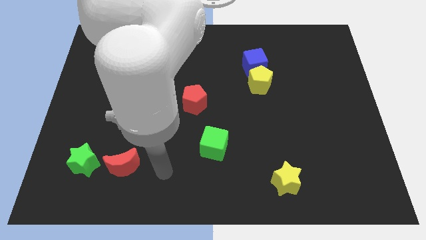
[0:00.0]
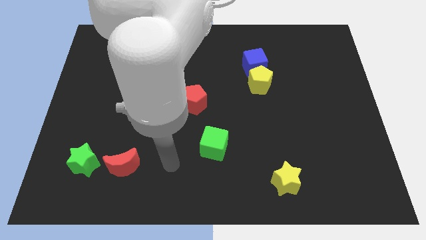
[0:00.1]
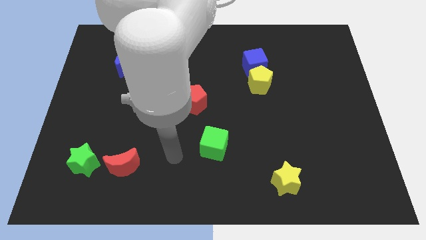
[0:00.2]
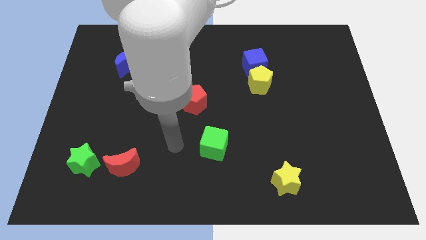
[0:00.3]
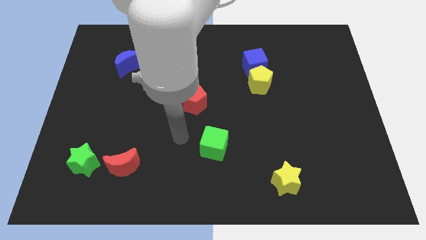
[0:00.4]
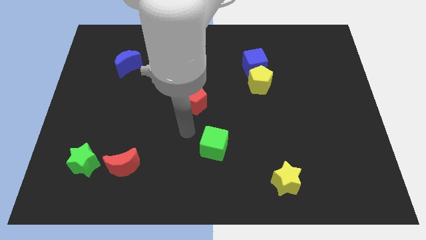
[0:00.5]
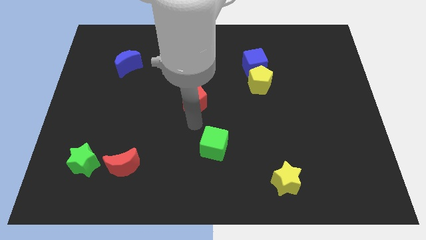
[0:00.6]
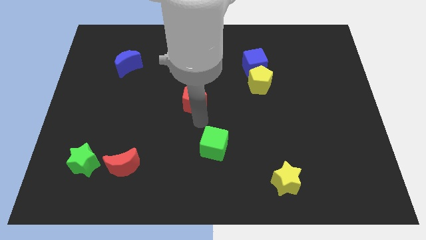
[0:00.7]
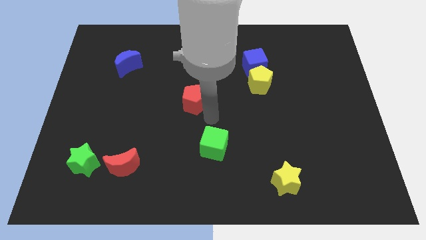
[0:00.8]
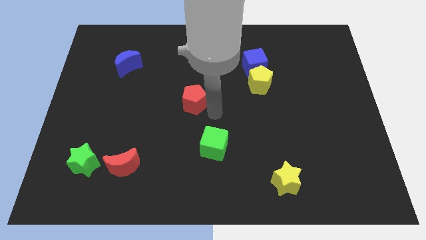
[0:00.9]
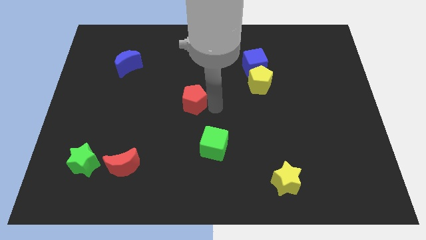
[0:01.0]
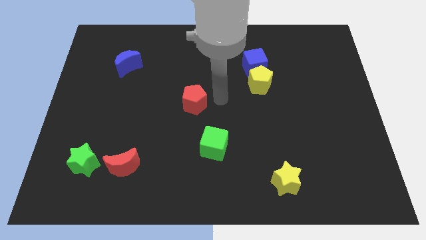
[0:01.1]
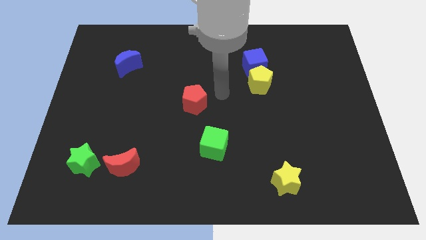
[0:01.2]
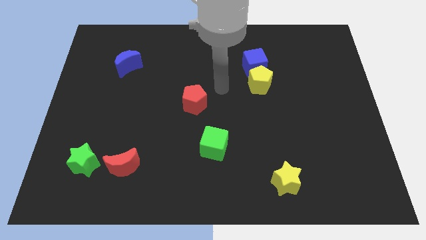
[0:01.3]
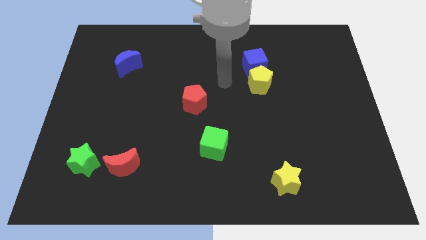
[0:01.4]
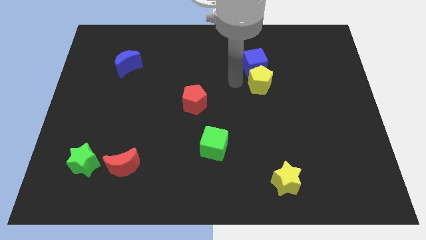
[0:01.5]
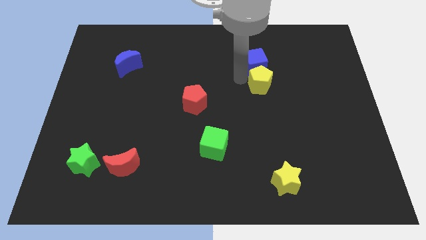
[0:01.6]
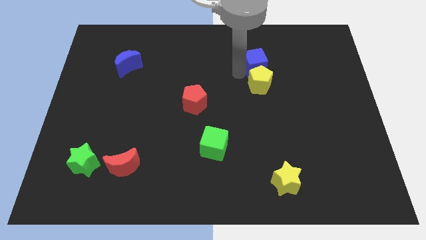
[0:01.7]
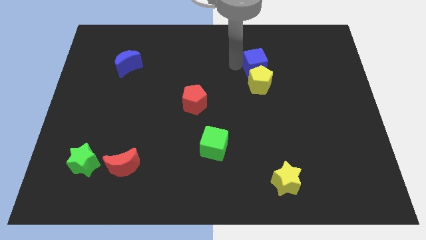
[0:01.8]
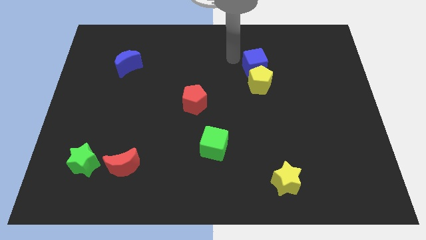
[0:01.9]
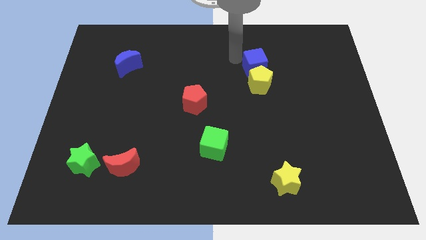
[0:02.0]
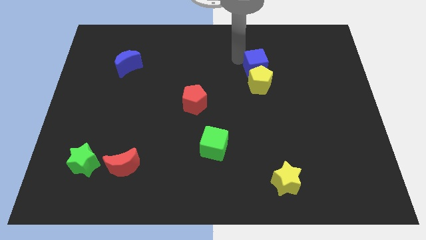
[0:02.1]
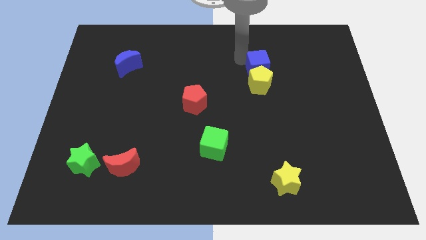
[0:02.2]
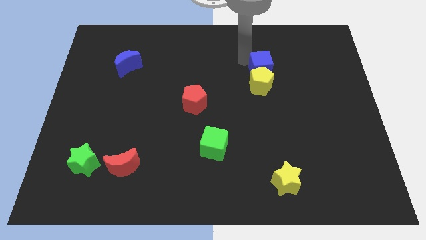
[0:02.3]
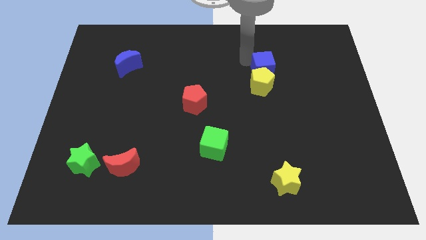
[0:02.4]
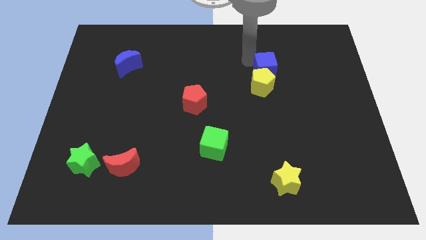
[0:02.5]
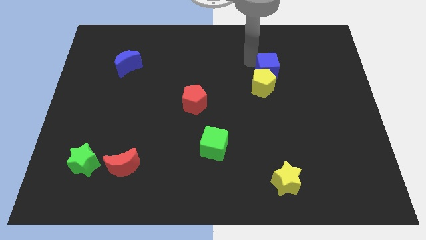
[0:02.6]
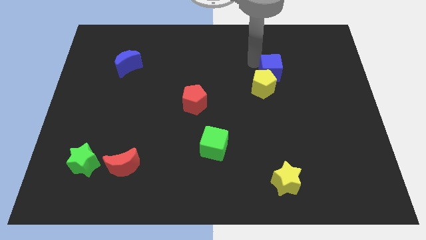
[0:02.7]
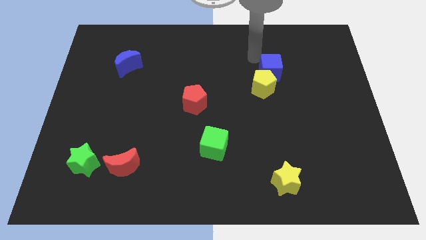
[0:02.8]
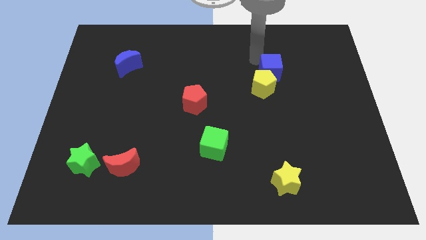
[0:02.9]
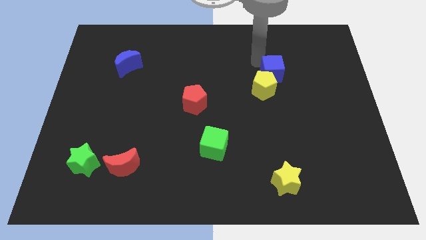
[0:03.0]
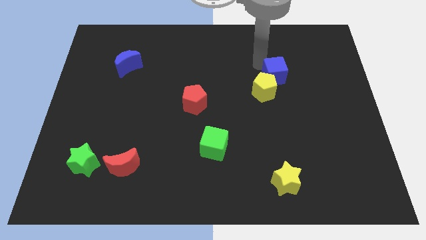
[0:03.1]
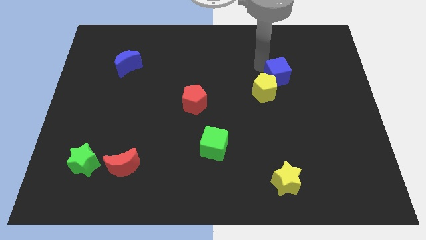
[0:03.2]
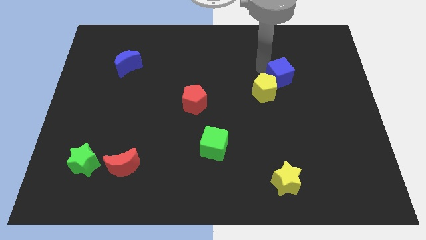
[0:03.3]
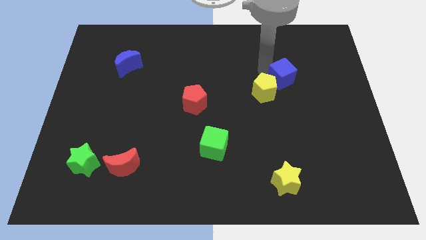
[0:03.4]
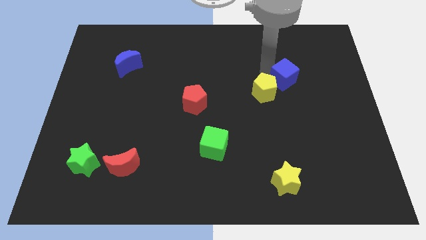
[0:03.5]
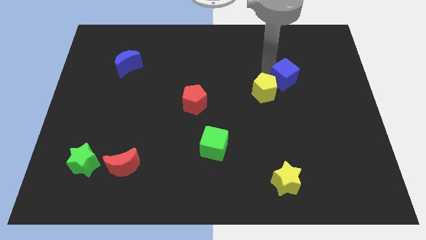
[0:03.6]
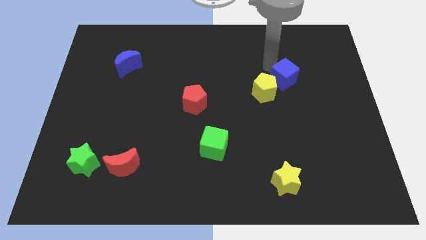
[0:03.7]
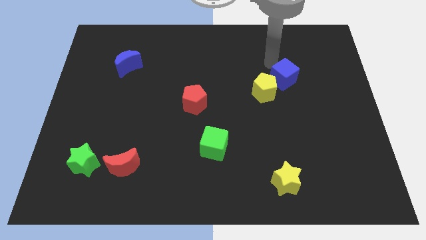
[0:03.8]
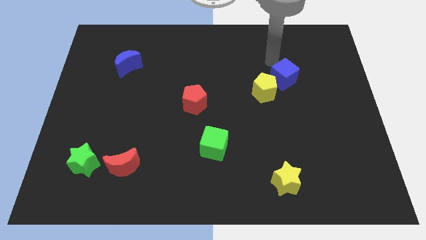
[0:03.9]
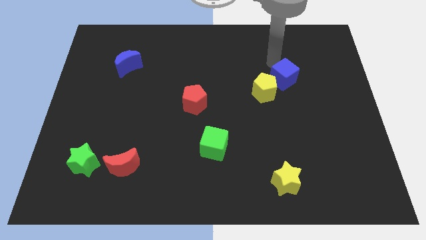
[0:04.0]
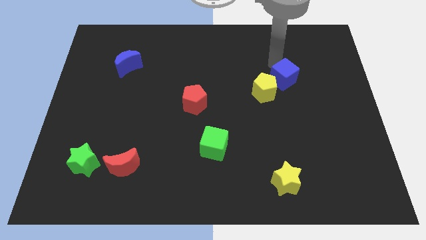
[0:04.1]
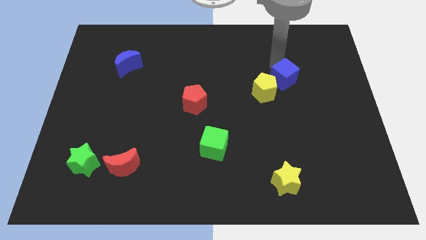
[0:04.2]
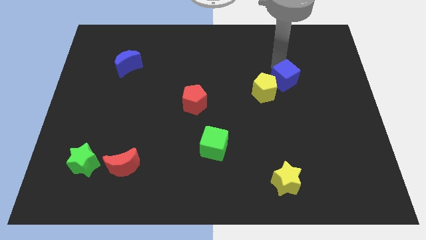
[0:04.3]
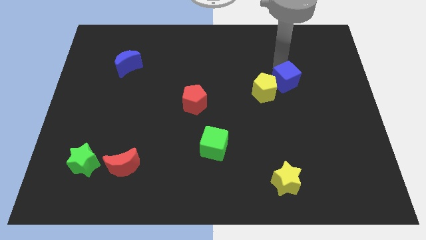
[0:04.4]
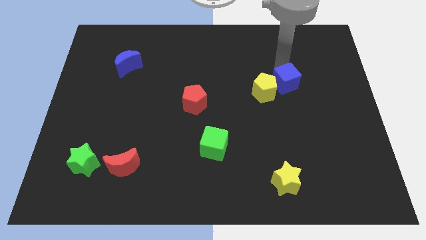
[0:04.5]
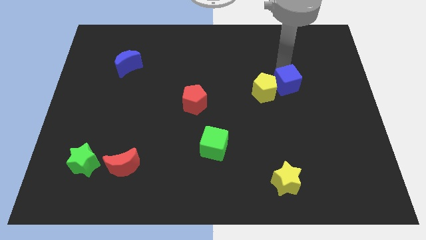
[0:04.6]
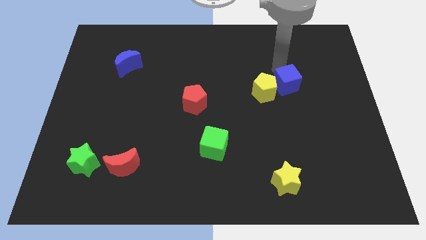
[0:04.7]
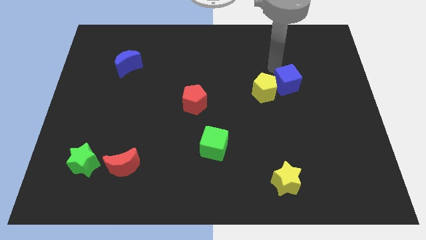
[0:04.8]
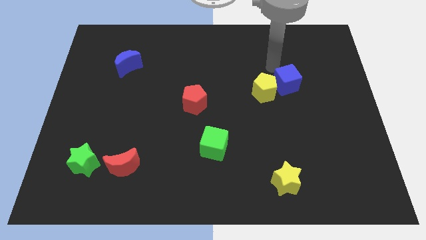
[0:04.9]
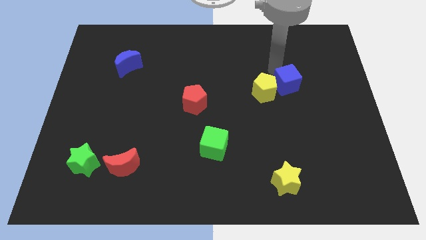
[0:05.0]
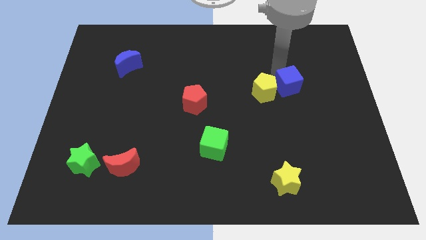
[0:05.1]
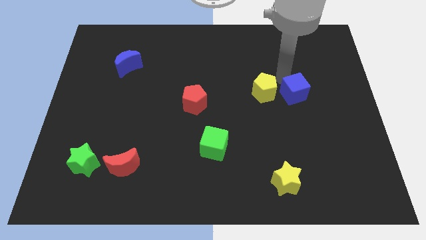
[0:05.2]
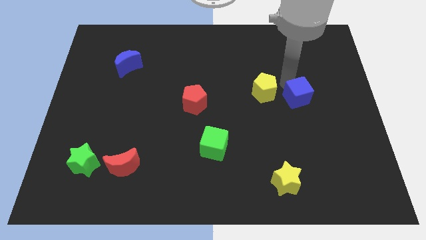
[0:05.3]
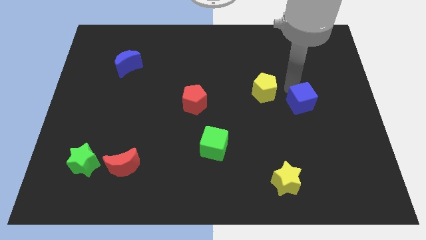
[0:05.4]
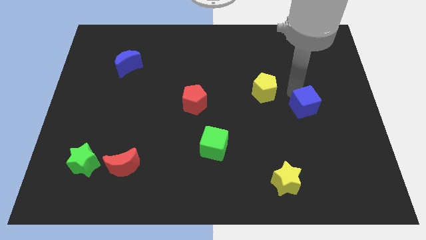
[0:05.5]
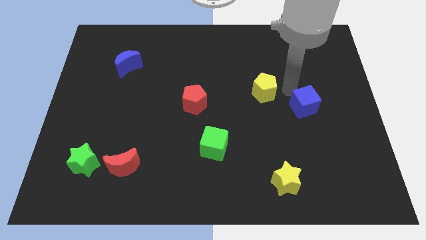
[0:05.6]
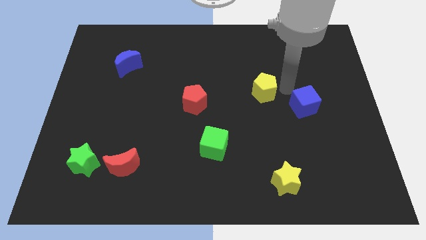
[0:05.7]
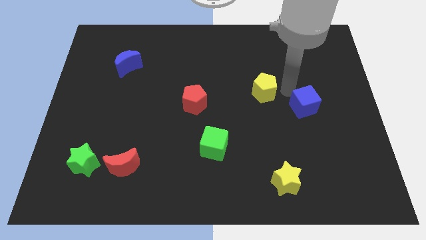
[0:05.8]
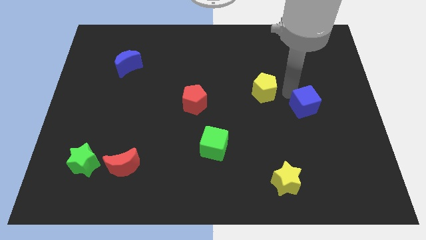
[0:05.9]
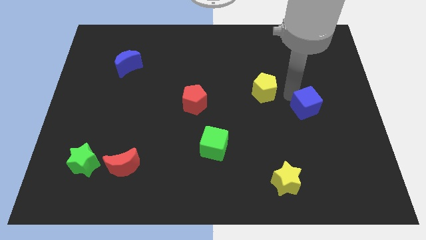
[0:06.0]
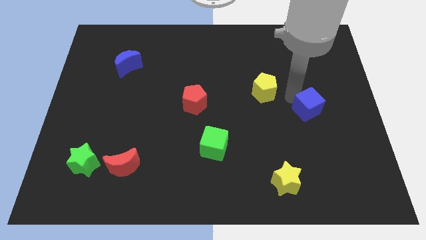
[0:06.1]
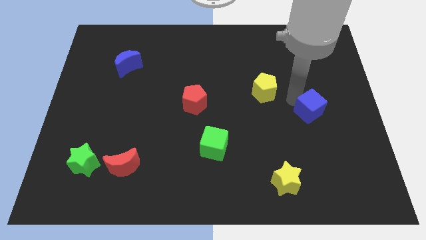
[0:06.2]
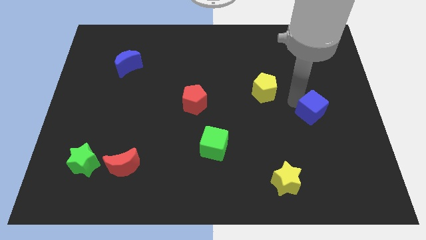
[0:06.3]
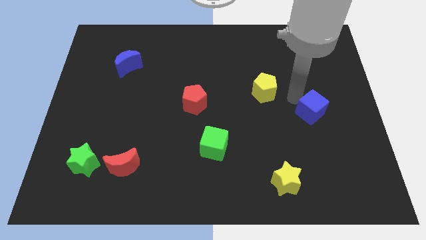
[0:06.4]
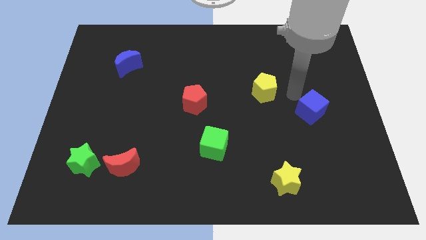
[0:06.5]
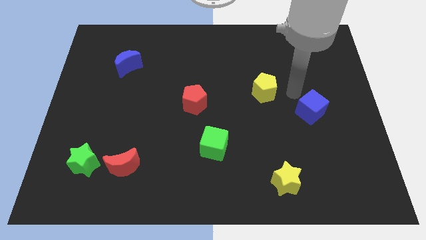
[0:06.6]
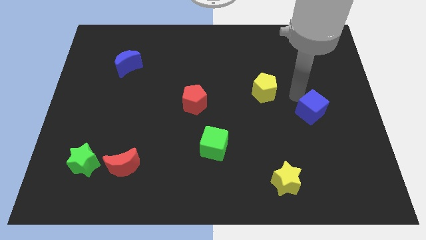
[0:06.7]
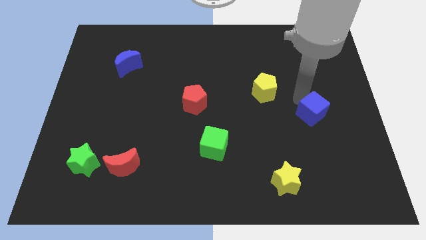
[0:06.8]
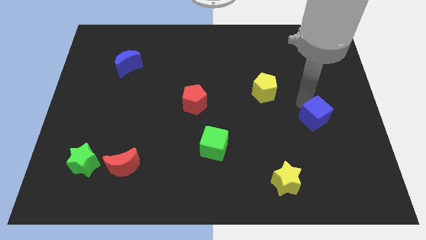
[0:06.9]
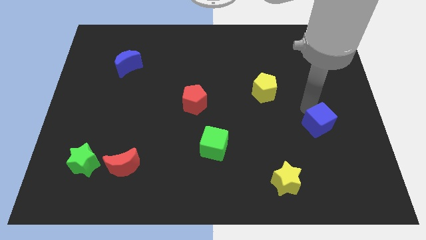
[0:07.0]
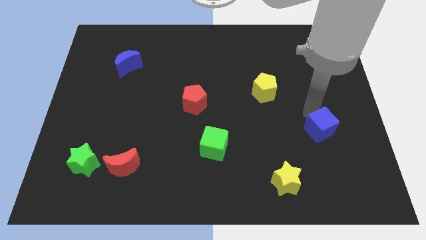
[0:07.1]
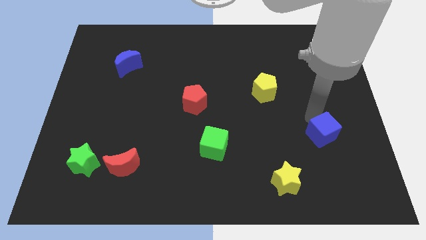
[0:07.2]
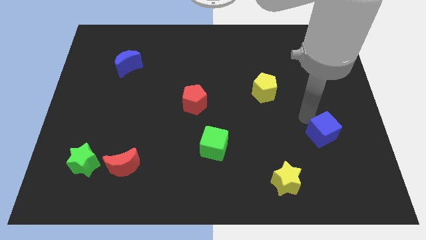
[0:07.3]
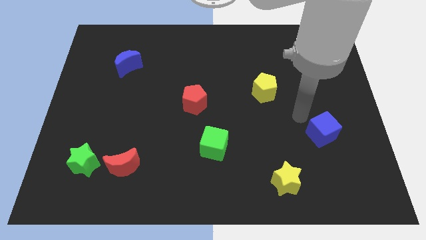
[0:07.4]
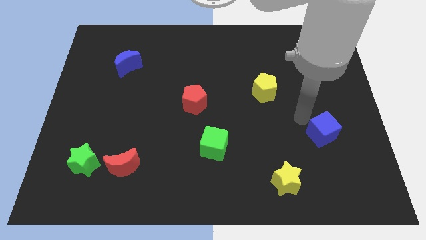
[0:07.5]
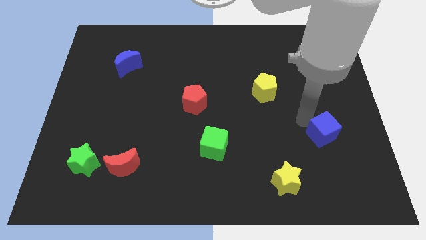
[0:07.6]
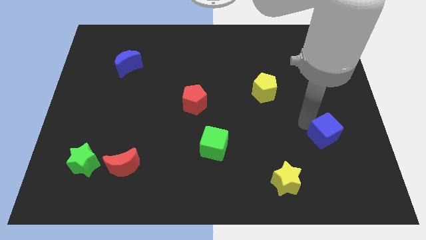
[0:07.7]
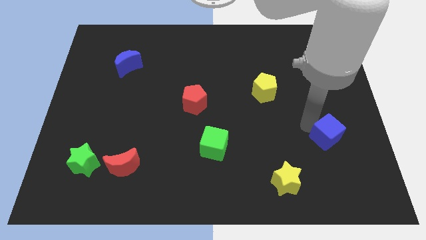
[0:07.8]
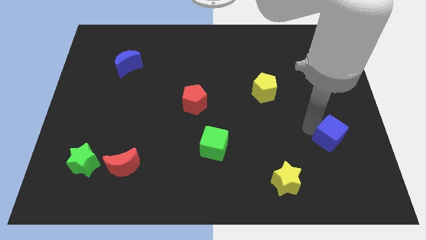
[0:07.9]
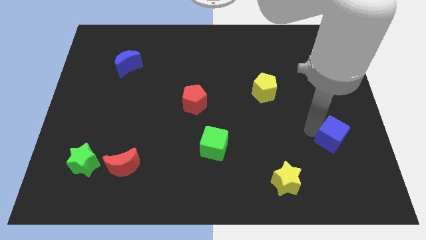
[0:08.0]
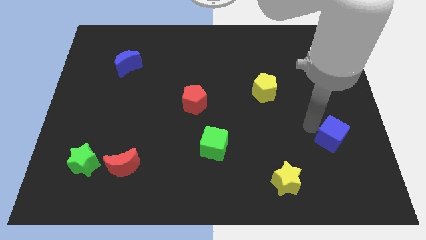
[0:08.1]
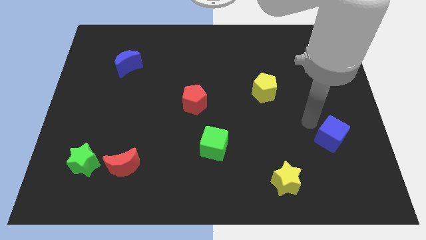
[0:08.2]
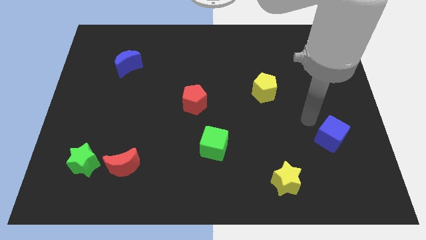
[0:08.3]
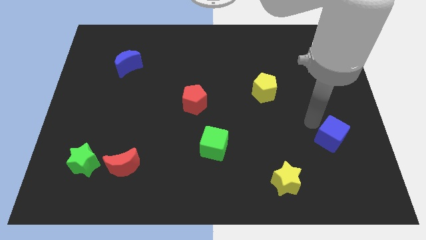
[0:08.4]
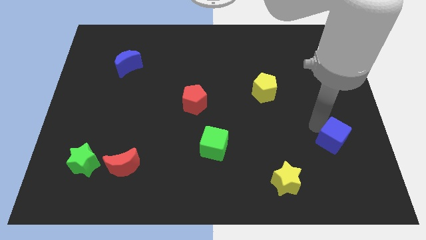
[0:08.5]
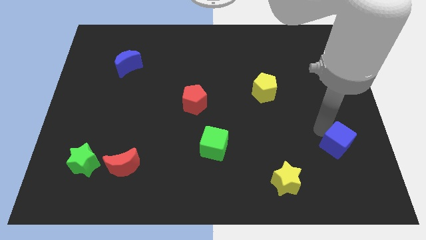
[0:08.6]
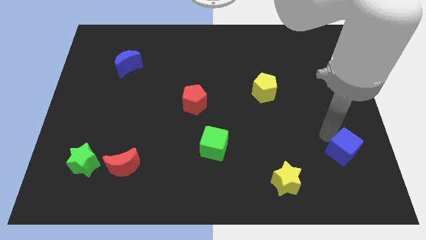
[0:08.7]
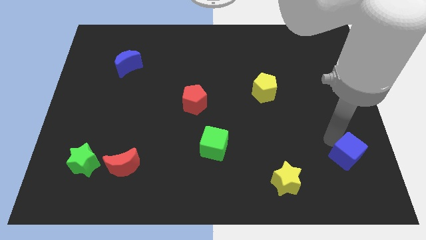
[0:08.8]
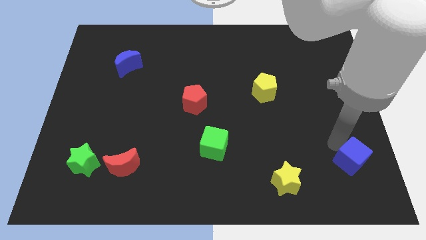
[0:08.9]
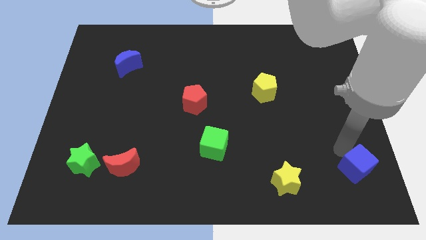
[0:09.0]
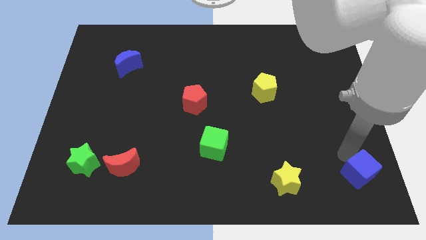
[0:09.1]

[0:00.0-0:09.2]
put the blue cube to the bottom right
